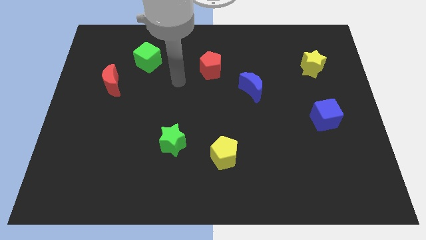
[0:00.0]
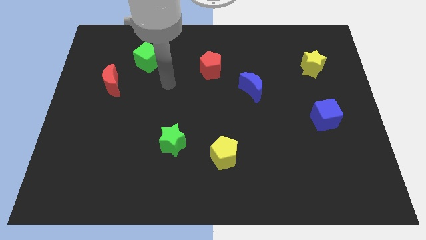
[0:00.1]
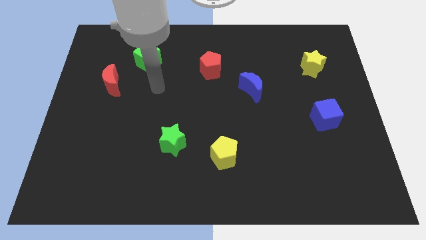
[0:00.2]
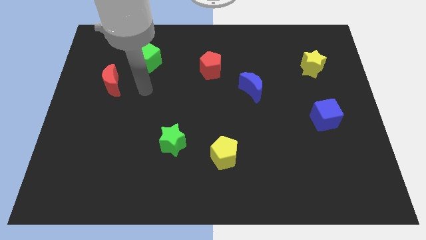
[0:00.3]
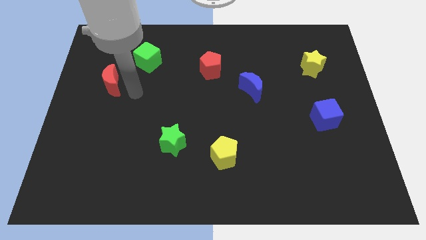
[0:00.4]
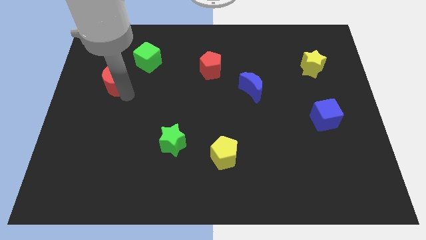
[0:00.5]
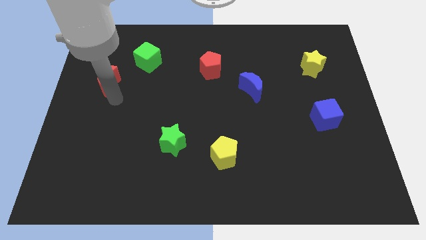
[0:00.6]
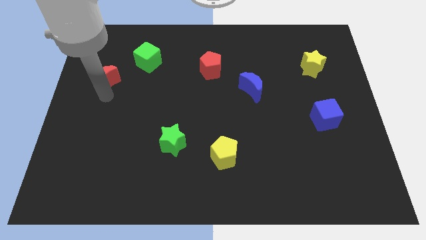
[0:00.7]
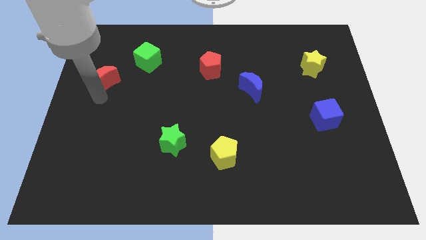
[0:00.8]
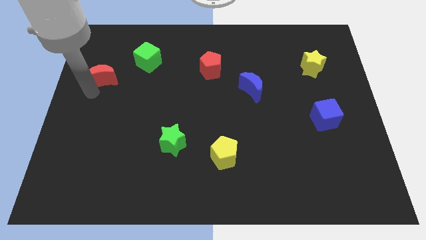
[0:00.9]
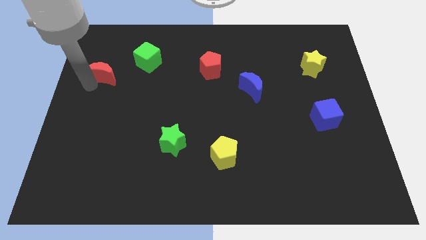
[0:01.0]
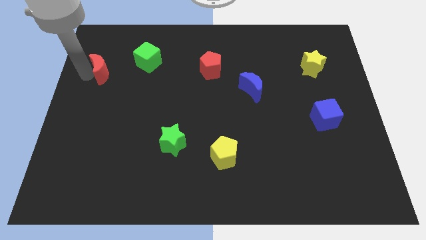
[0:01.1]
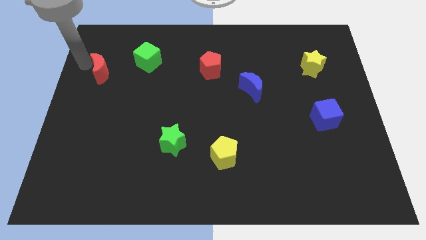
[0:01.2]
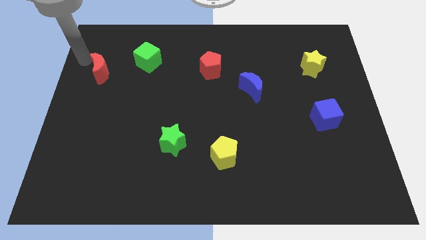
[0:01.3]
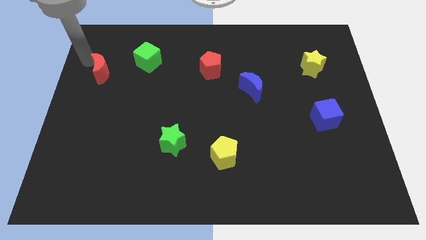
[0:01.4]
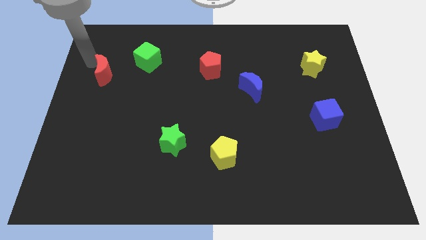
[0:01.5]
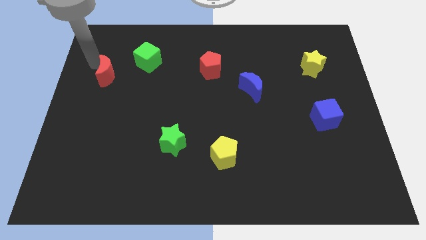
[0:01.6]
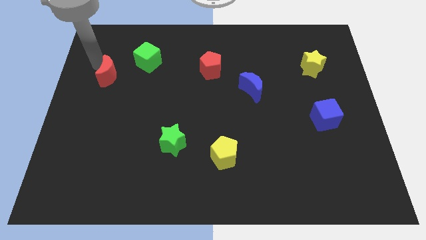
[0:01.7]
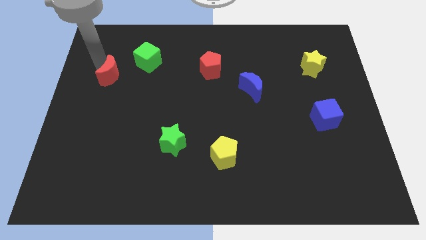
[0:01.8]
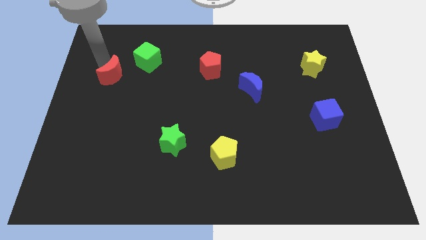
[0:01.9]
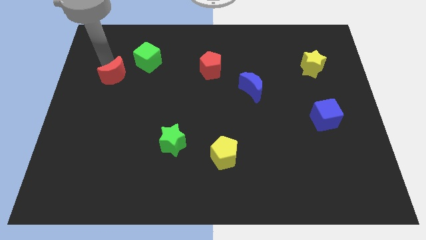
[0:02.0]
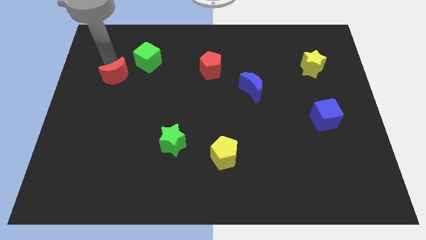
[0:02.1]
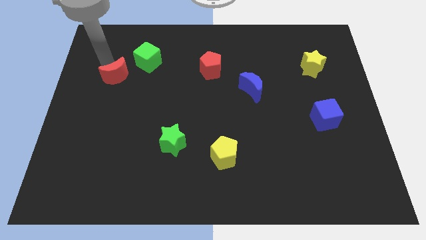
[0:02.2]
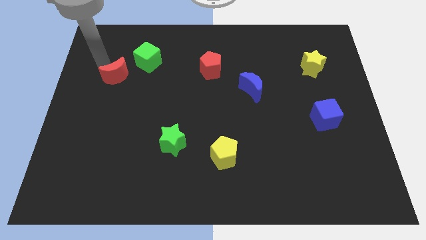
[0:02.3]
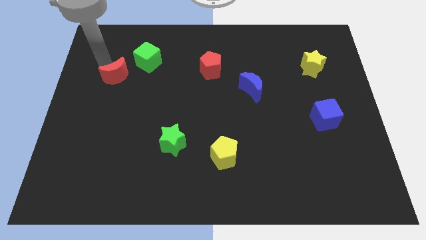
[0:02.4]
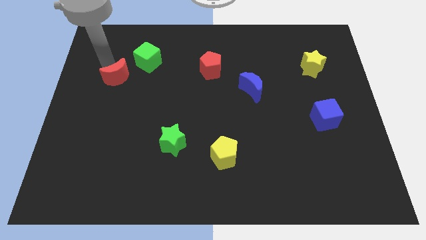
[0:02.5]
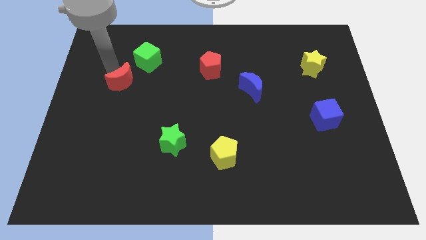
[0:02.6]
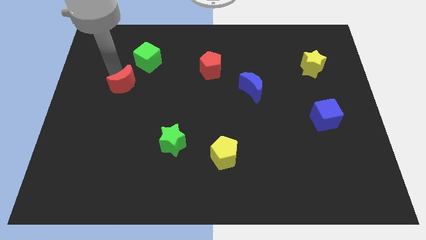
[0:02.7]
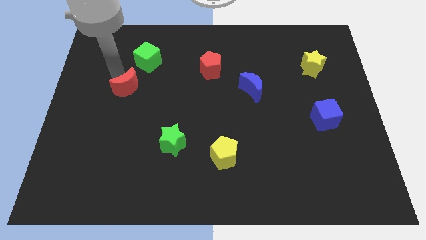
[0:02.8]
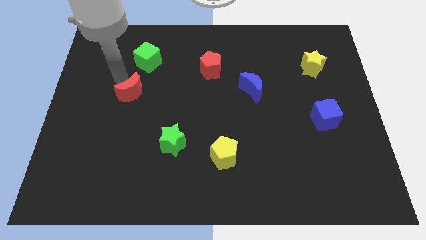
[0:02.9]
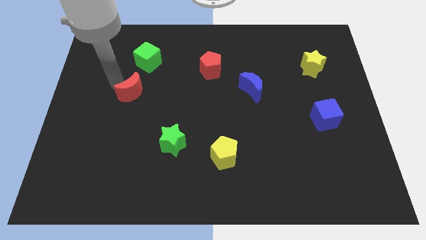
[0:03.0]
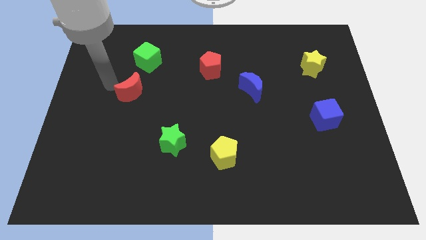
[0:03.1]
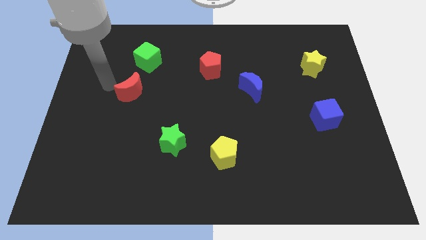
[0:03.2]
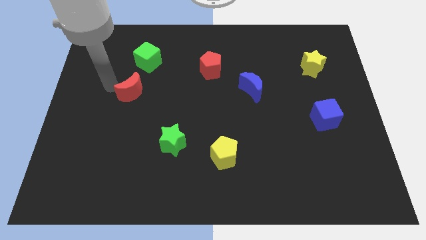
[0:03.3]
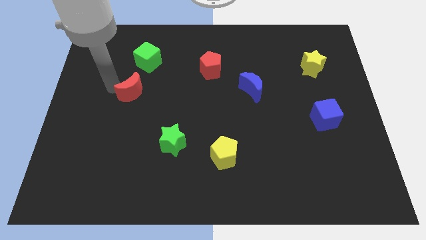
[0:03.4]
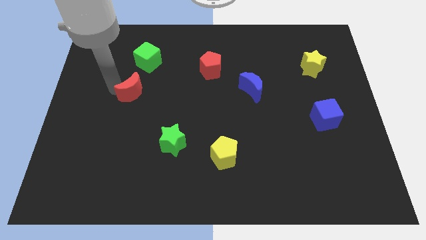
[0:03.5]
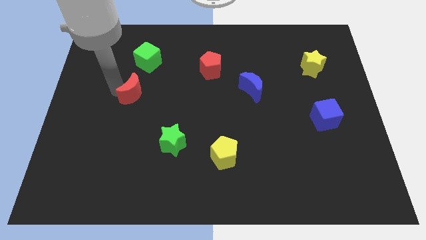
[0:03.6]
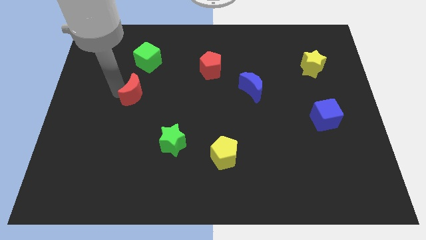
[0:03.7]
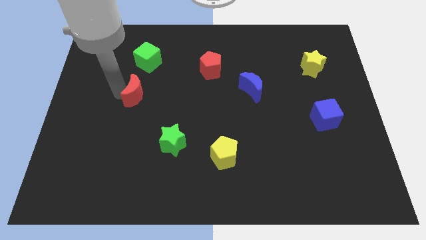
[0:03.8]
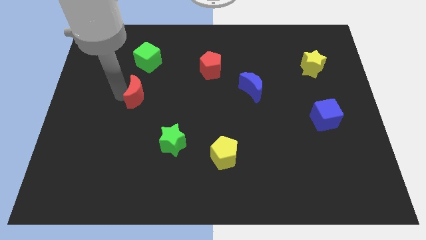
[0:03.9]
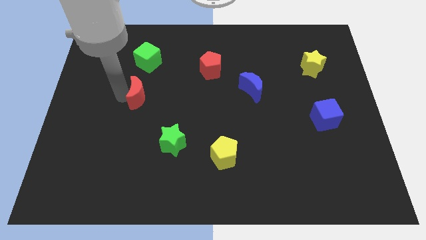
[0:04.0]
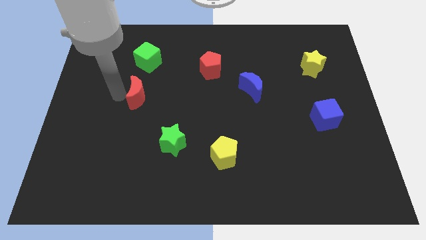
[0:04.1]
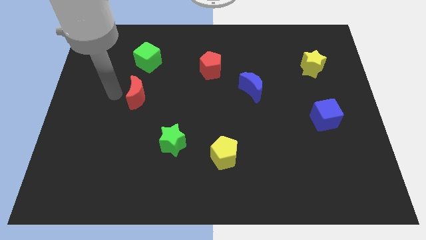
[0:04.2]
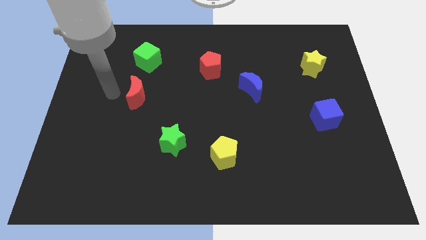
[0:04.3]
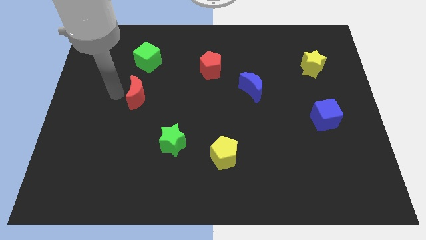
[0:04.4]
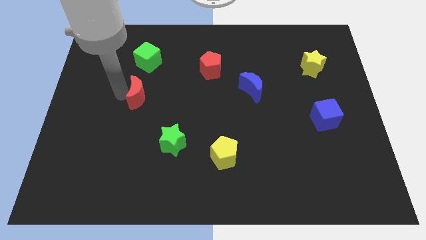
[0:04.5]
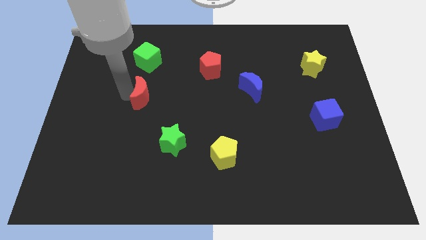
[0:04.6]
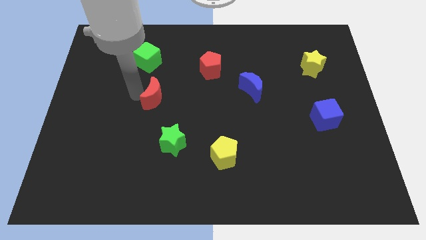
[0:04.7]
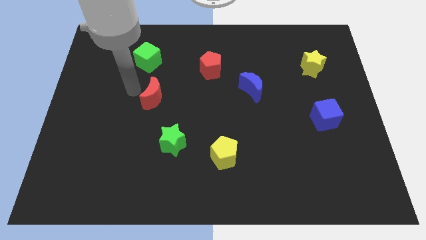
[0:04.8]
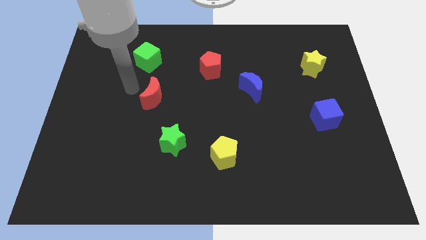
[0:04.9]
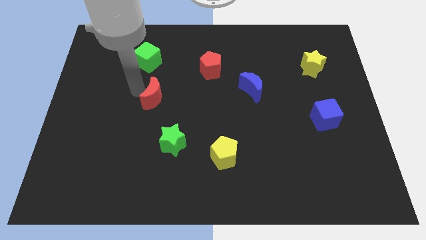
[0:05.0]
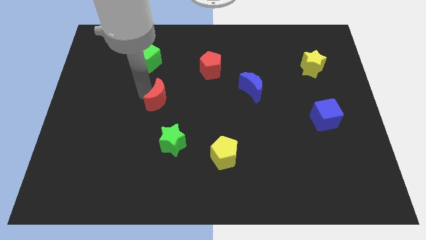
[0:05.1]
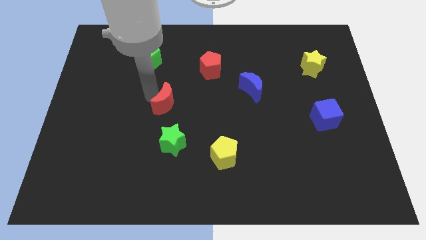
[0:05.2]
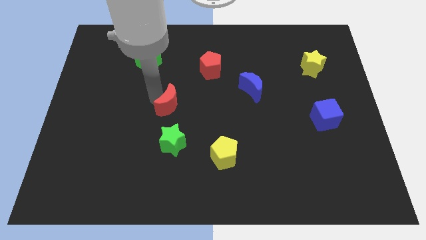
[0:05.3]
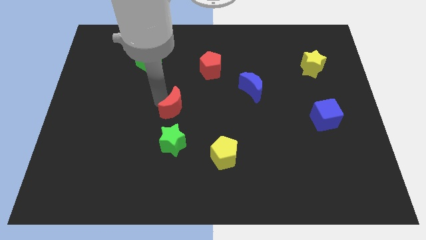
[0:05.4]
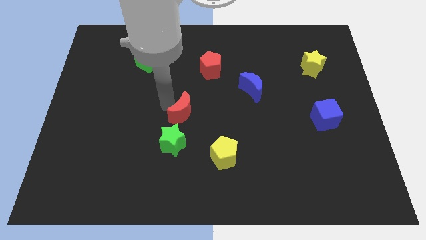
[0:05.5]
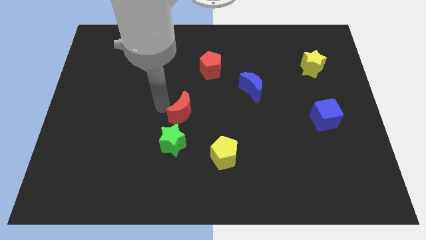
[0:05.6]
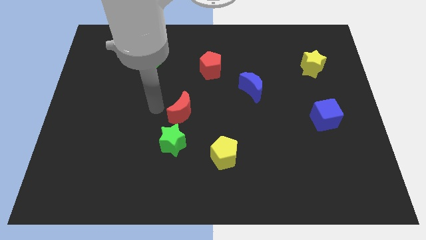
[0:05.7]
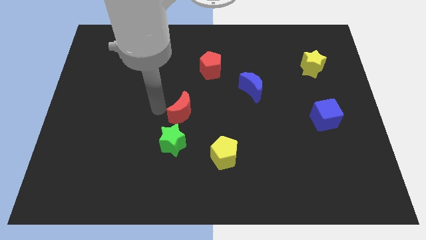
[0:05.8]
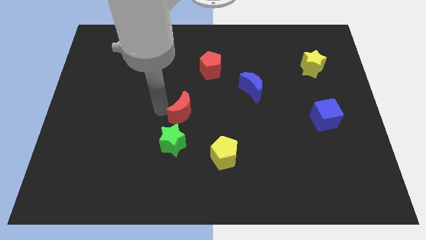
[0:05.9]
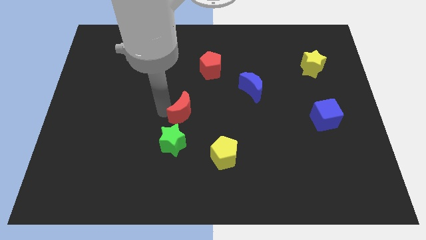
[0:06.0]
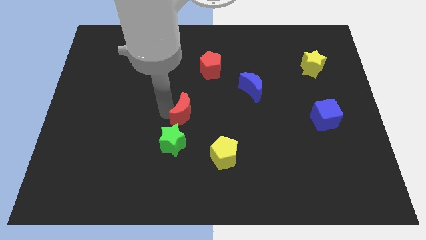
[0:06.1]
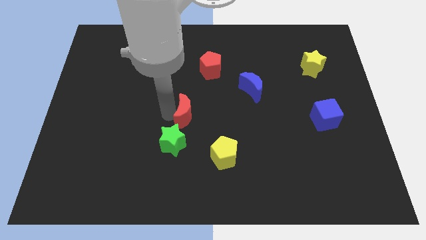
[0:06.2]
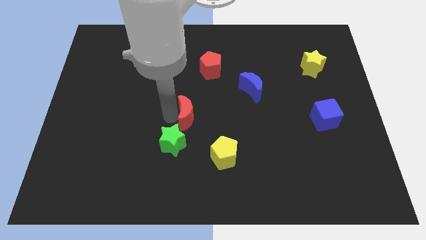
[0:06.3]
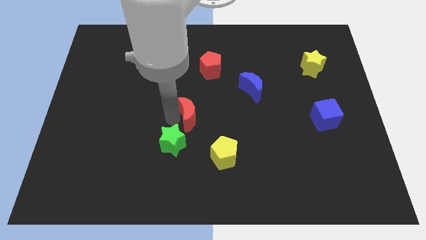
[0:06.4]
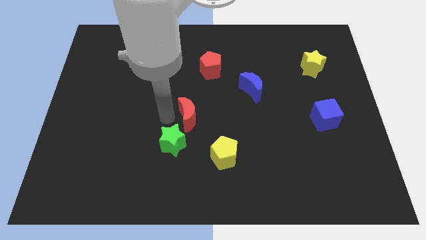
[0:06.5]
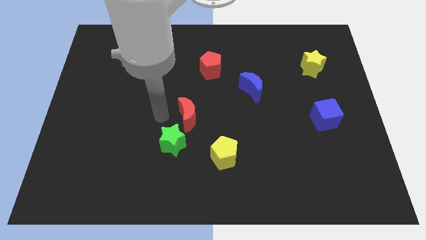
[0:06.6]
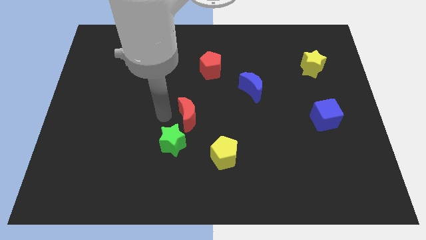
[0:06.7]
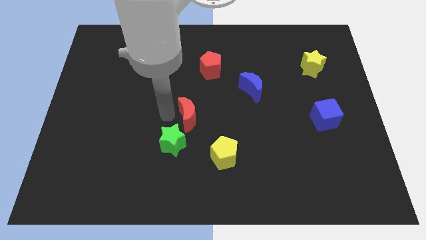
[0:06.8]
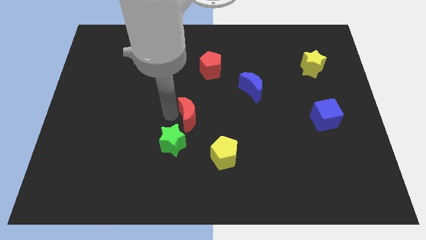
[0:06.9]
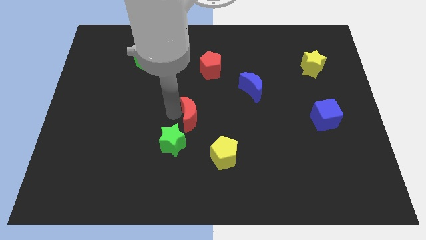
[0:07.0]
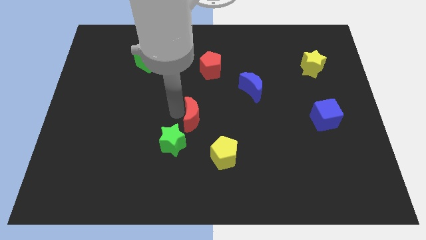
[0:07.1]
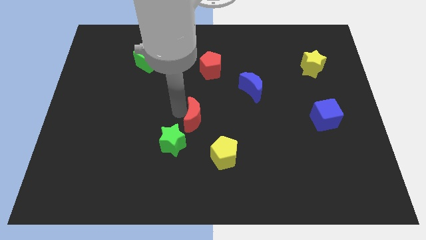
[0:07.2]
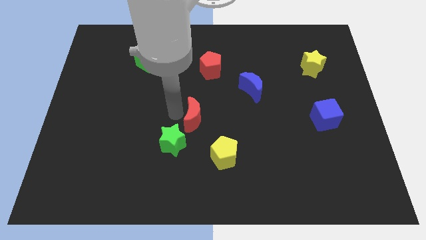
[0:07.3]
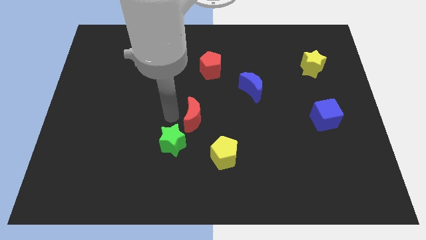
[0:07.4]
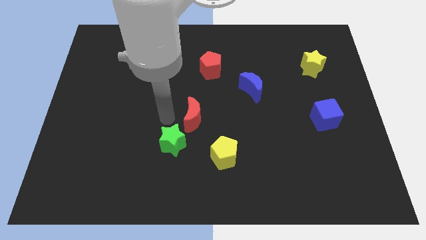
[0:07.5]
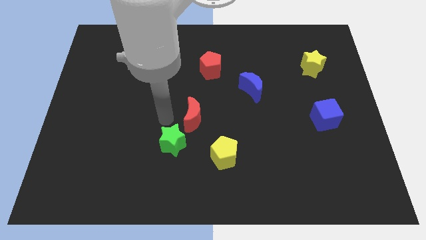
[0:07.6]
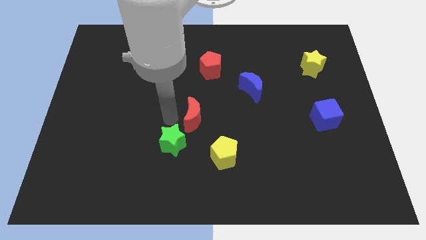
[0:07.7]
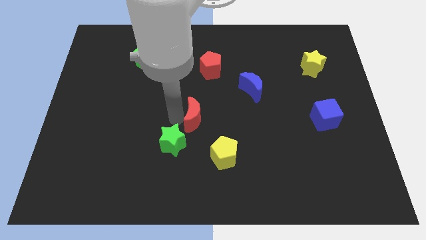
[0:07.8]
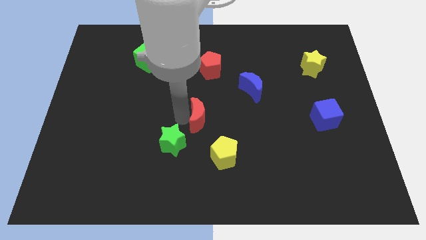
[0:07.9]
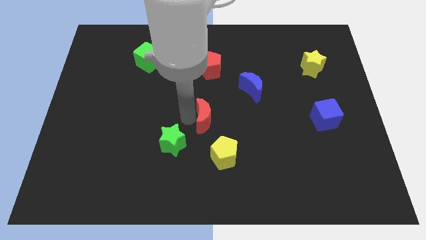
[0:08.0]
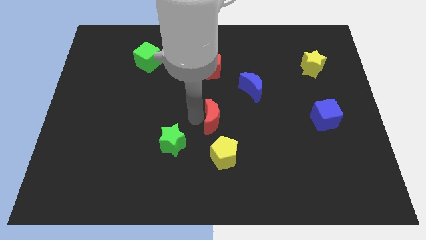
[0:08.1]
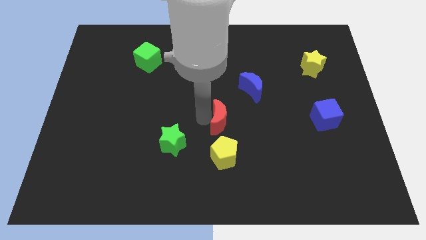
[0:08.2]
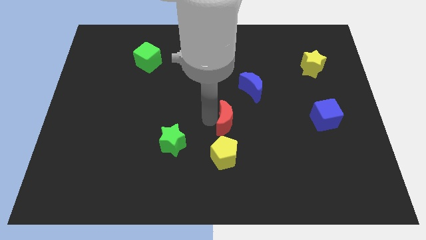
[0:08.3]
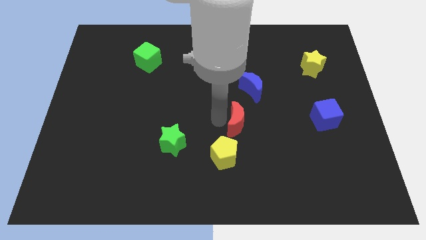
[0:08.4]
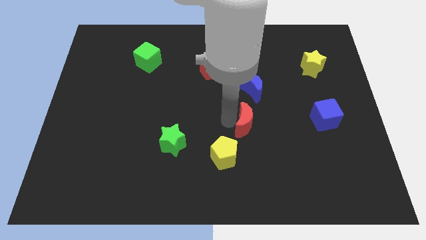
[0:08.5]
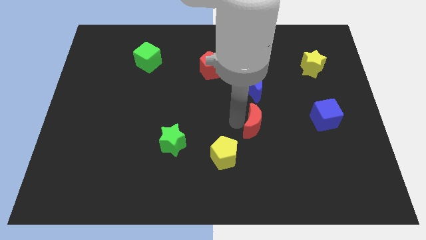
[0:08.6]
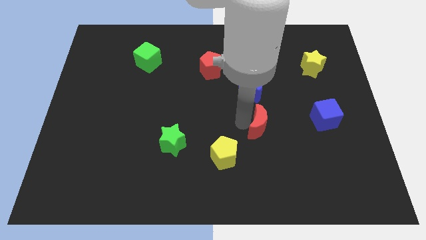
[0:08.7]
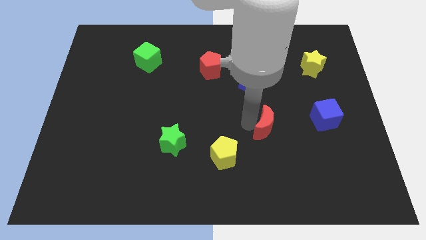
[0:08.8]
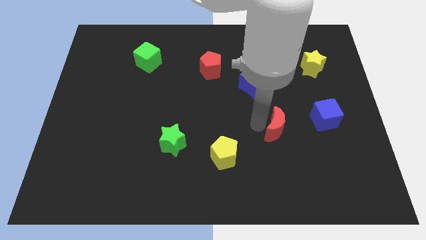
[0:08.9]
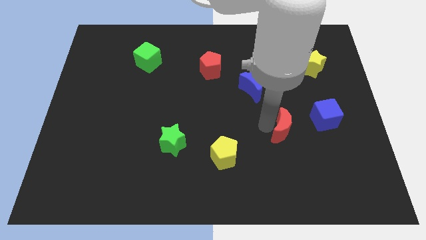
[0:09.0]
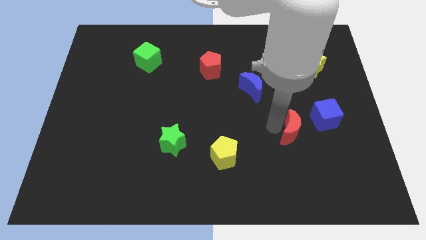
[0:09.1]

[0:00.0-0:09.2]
slide the red moon diagonally down and to the left of the blue cube
